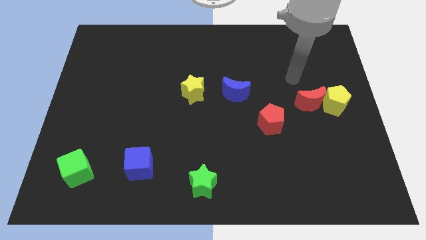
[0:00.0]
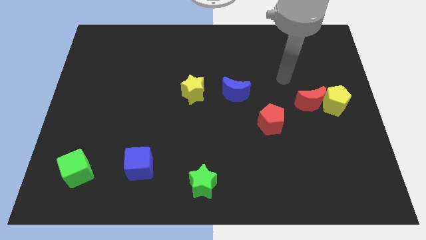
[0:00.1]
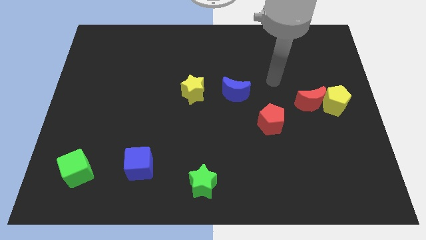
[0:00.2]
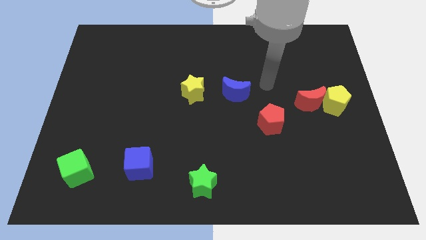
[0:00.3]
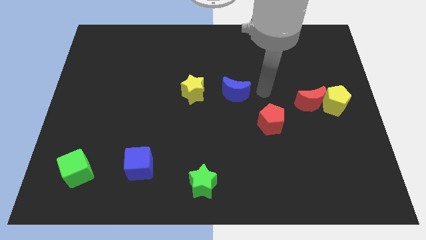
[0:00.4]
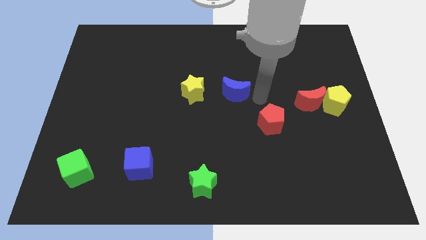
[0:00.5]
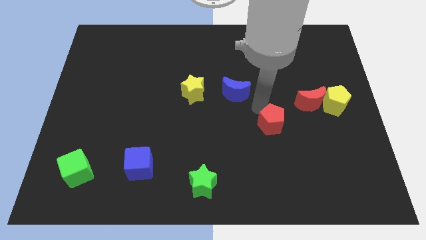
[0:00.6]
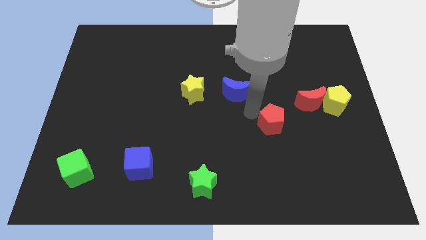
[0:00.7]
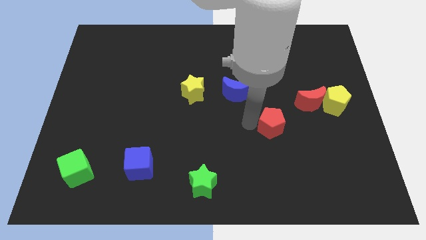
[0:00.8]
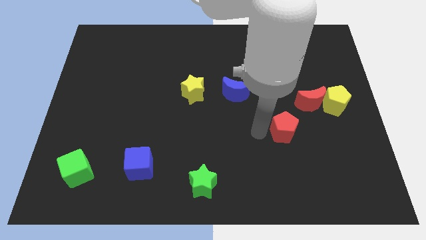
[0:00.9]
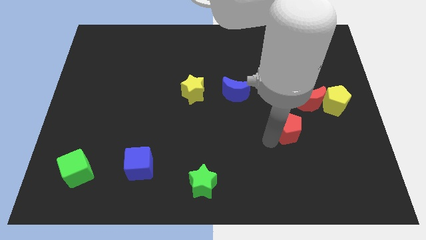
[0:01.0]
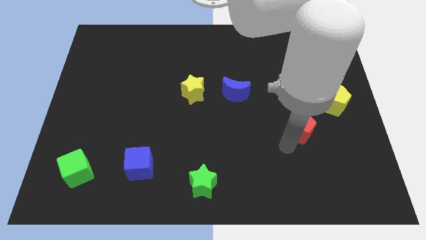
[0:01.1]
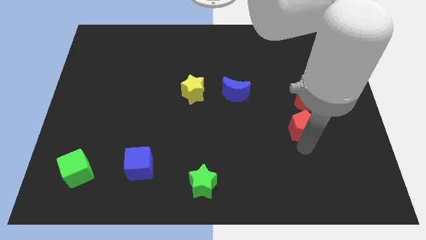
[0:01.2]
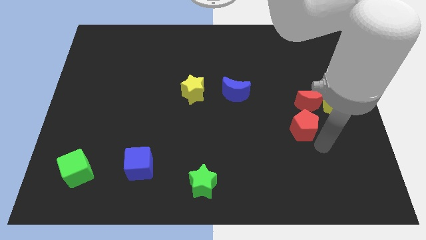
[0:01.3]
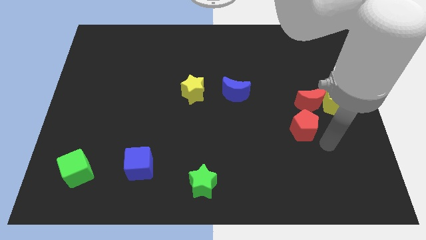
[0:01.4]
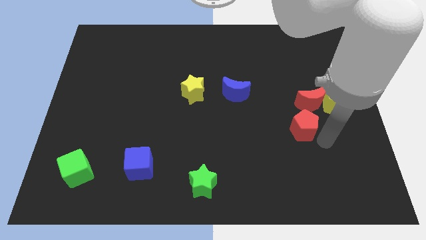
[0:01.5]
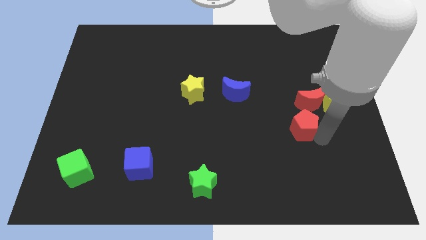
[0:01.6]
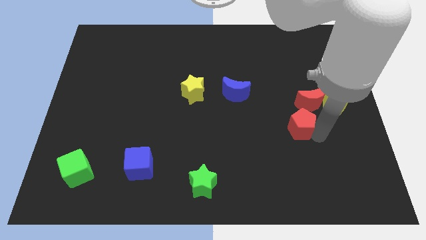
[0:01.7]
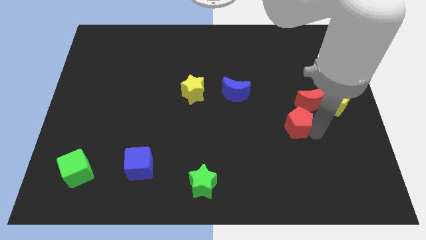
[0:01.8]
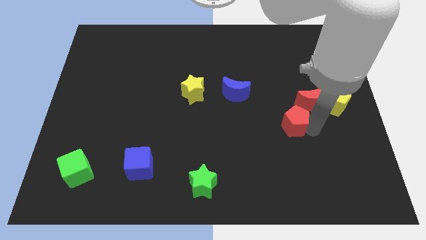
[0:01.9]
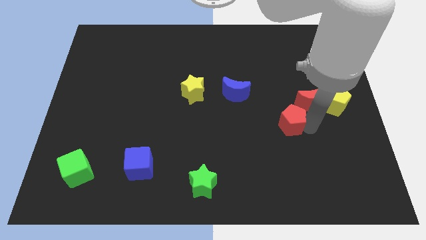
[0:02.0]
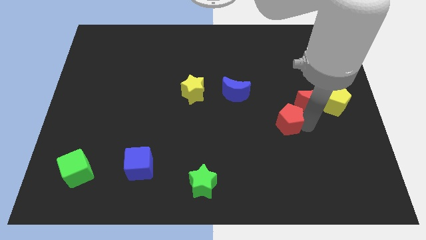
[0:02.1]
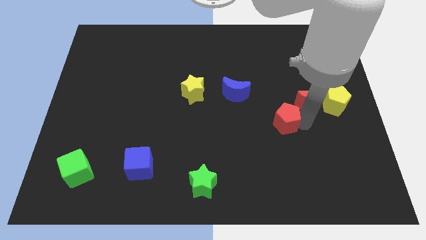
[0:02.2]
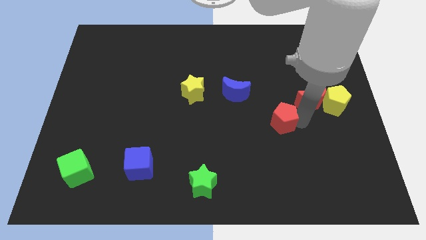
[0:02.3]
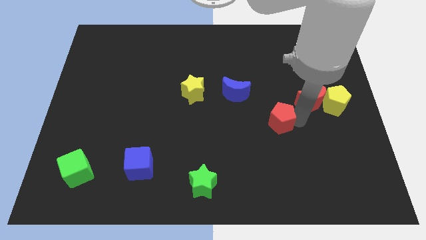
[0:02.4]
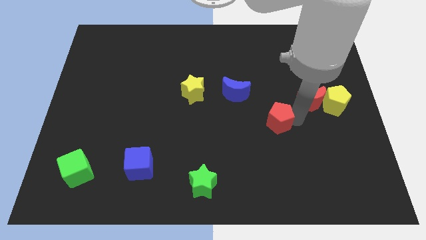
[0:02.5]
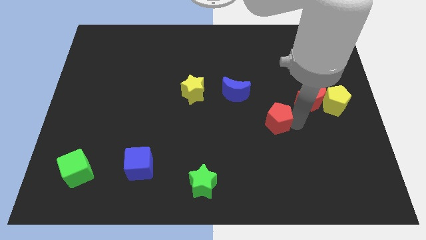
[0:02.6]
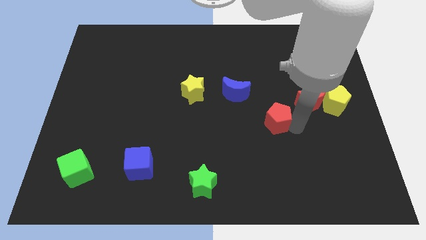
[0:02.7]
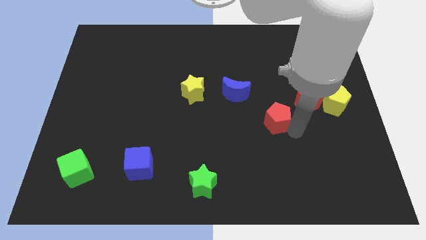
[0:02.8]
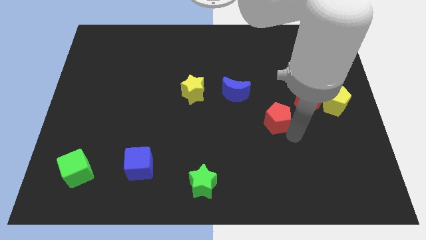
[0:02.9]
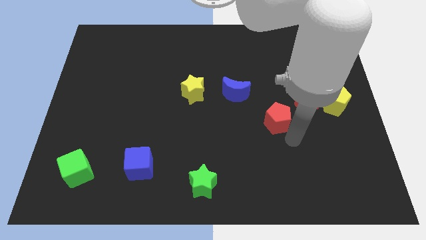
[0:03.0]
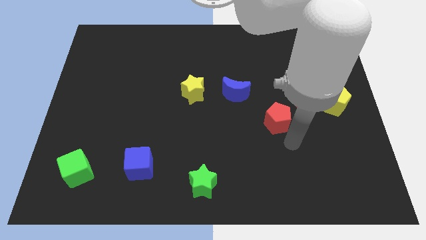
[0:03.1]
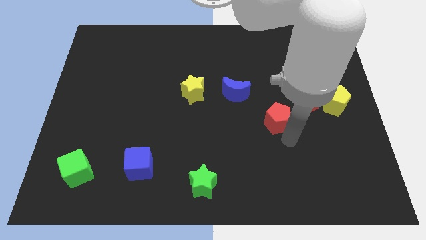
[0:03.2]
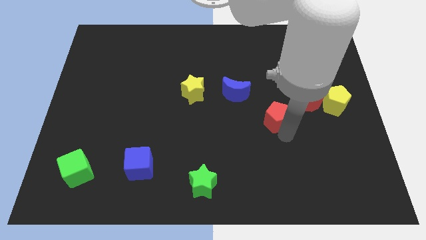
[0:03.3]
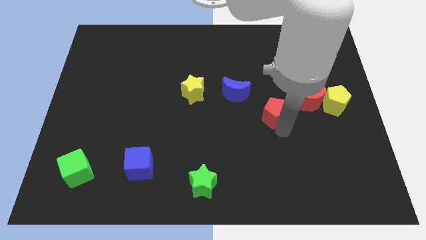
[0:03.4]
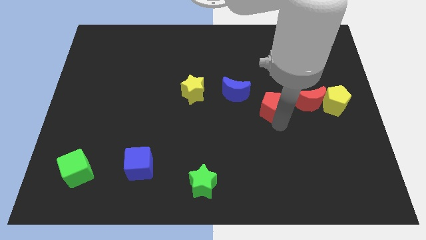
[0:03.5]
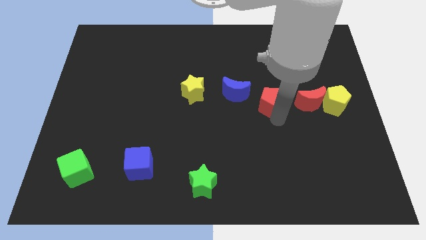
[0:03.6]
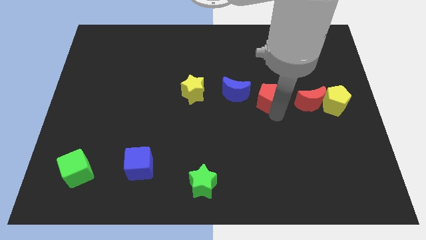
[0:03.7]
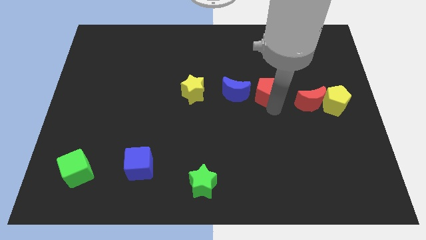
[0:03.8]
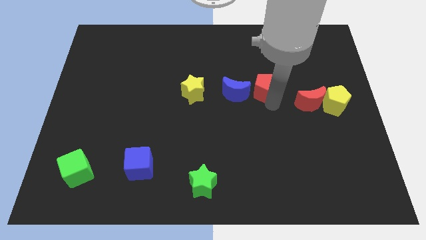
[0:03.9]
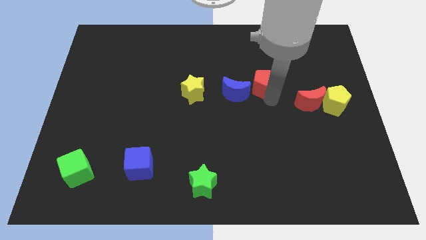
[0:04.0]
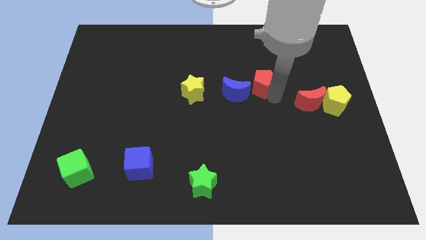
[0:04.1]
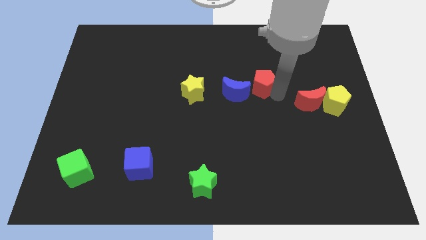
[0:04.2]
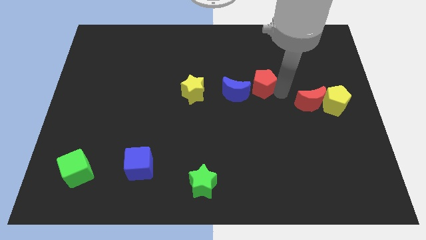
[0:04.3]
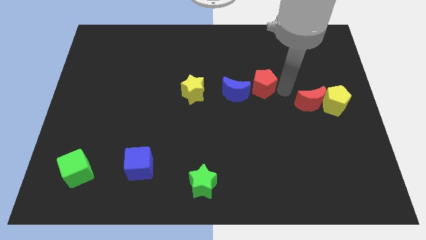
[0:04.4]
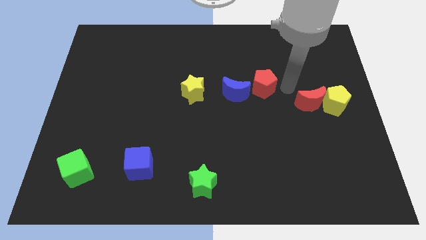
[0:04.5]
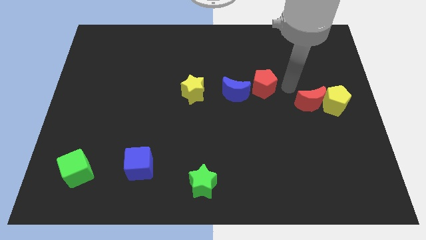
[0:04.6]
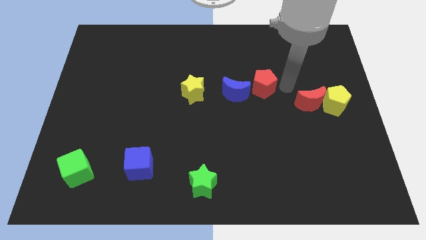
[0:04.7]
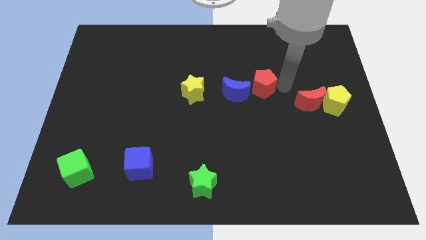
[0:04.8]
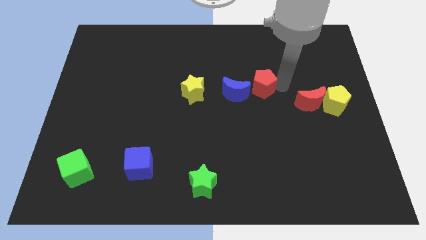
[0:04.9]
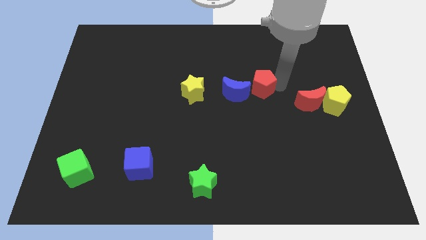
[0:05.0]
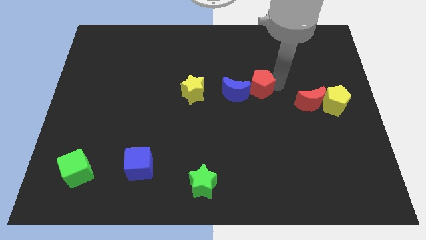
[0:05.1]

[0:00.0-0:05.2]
slightly slide the red pentagon upwards and to the left

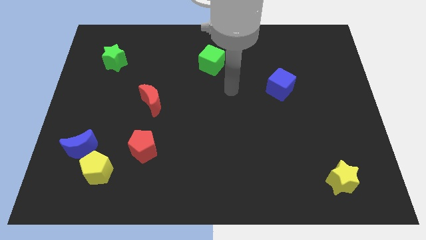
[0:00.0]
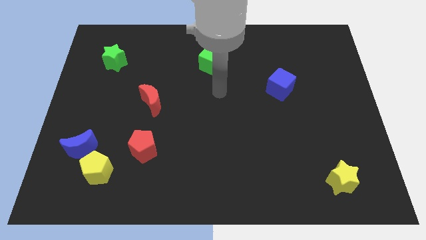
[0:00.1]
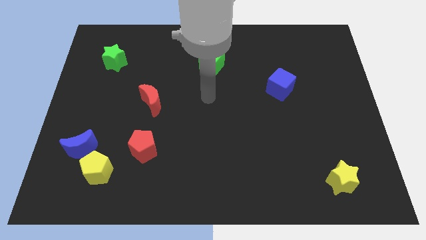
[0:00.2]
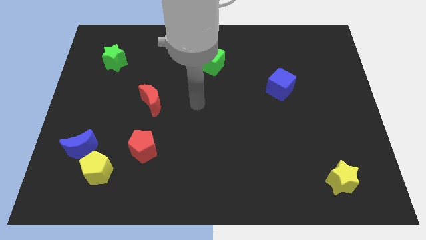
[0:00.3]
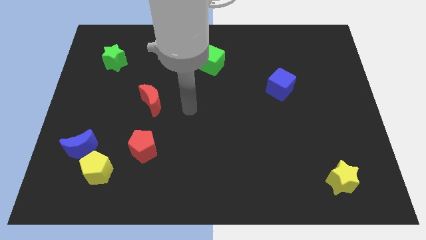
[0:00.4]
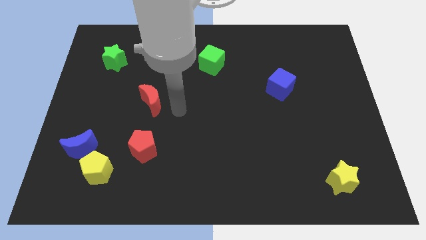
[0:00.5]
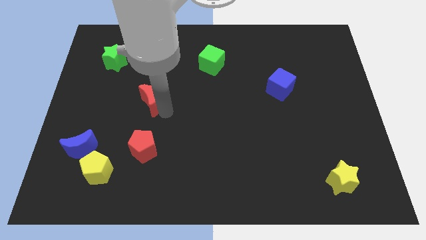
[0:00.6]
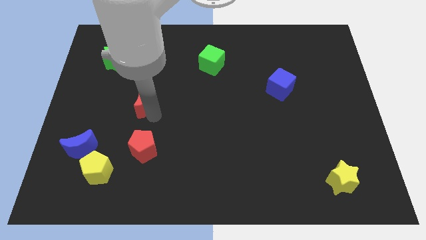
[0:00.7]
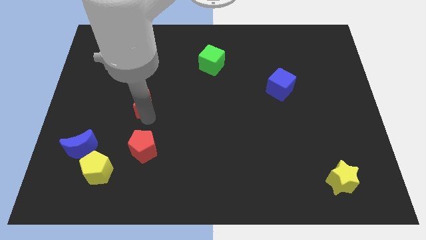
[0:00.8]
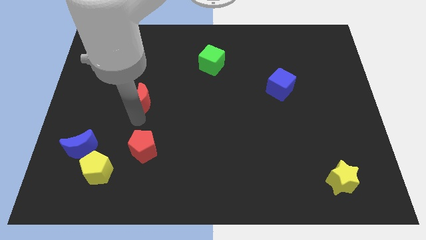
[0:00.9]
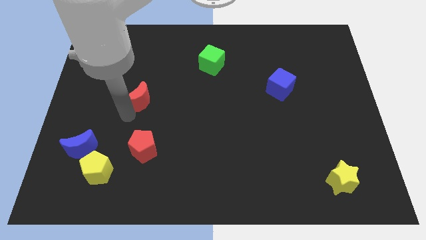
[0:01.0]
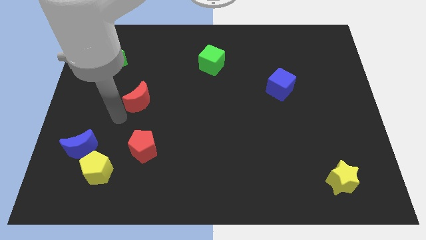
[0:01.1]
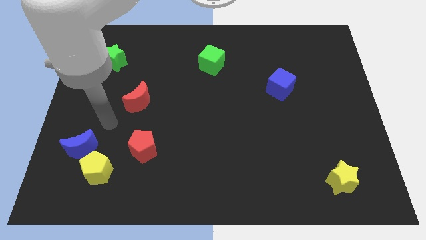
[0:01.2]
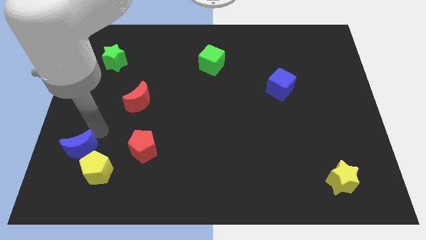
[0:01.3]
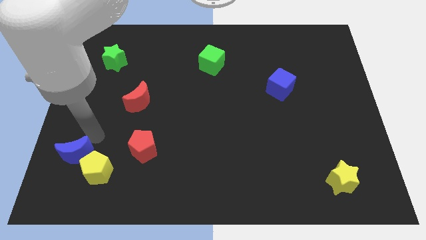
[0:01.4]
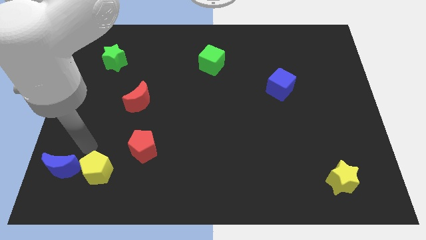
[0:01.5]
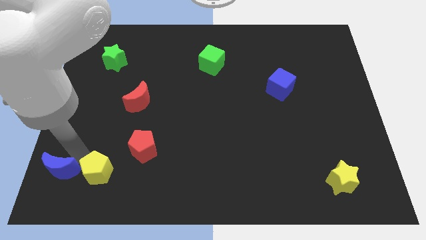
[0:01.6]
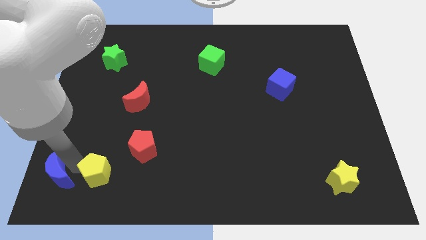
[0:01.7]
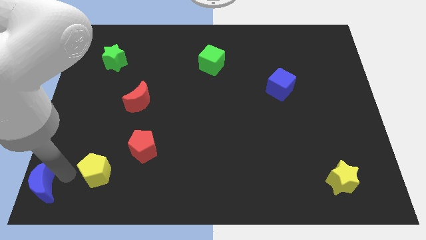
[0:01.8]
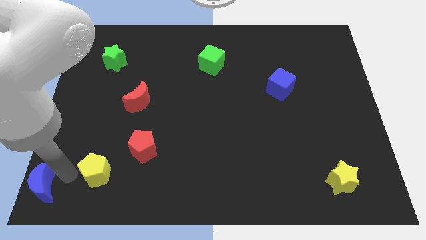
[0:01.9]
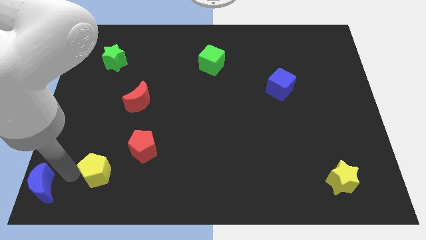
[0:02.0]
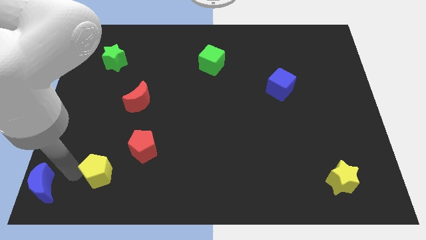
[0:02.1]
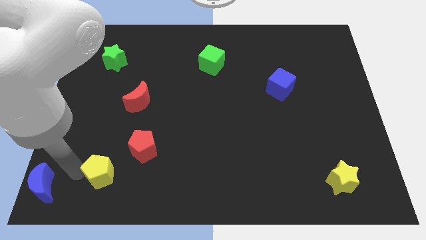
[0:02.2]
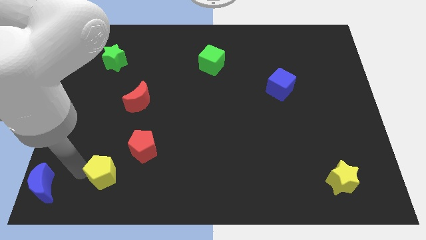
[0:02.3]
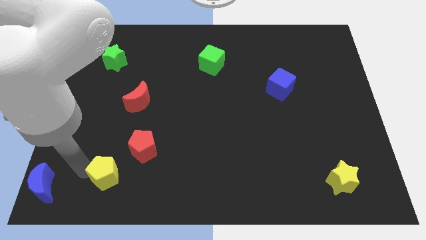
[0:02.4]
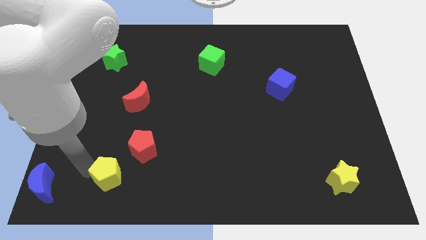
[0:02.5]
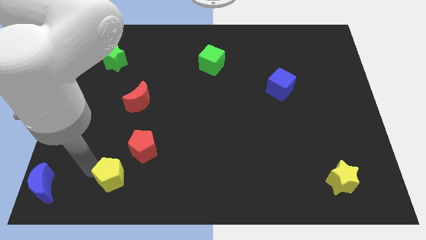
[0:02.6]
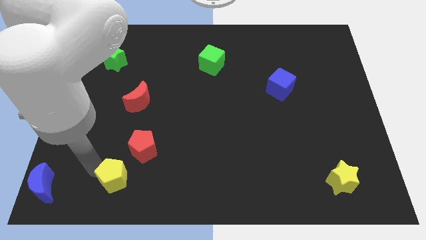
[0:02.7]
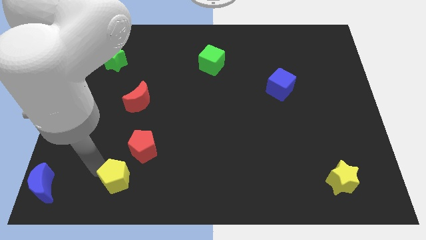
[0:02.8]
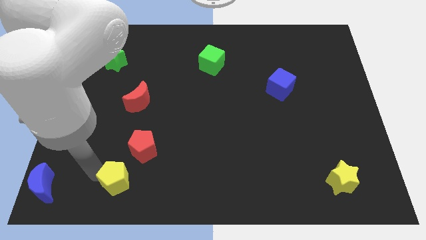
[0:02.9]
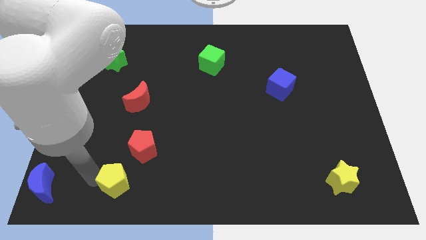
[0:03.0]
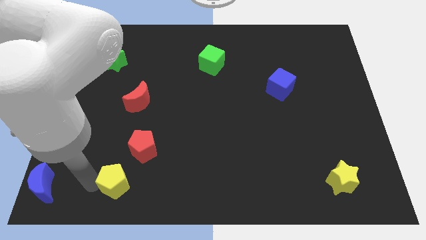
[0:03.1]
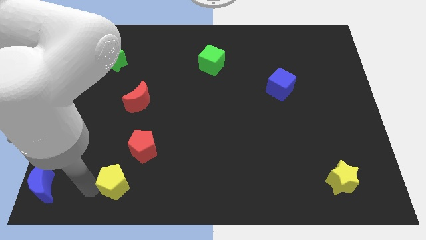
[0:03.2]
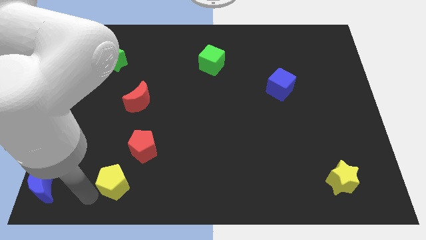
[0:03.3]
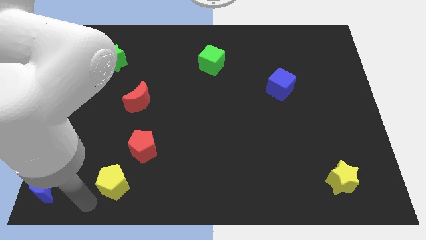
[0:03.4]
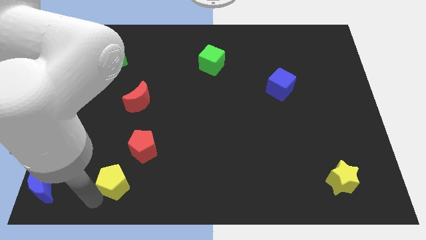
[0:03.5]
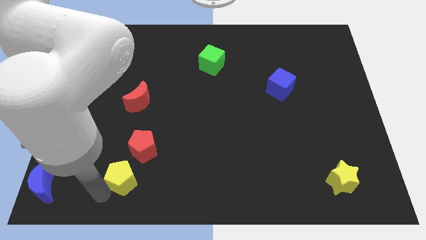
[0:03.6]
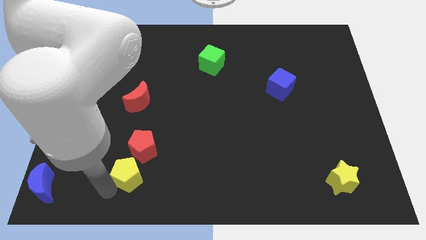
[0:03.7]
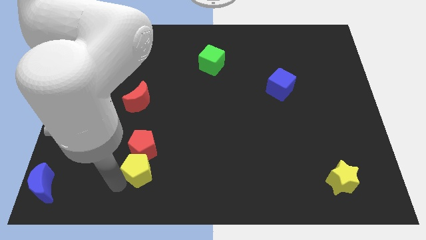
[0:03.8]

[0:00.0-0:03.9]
push the yellow pentagon right a bit
